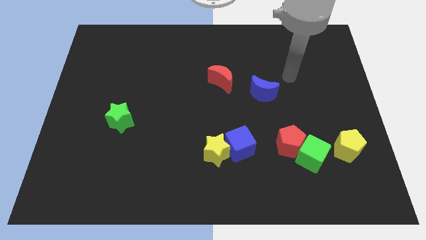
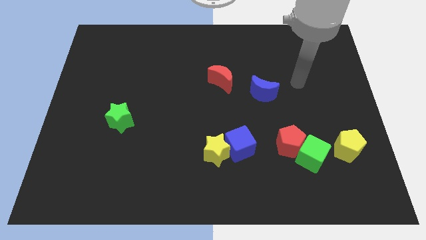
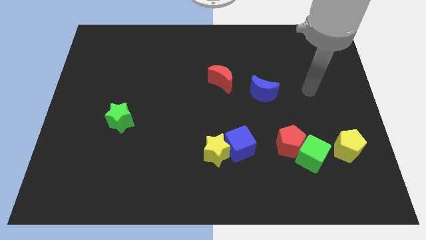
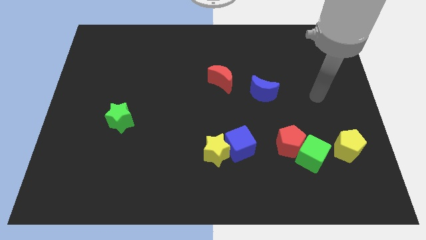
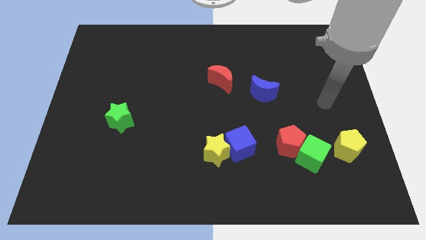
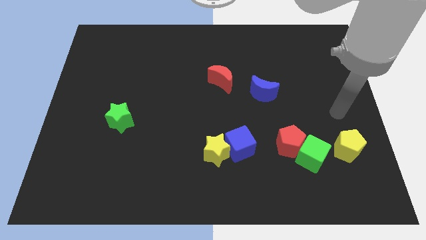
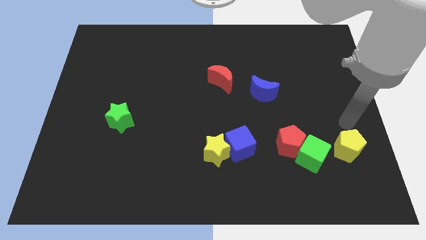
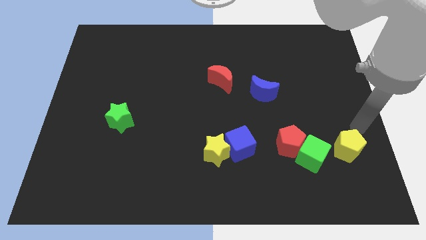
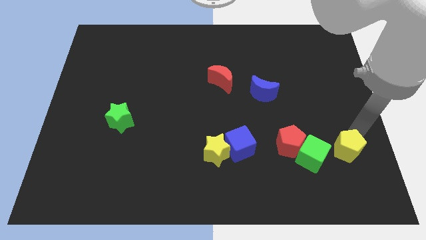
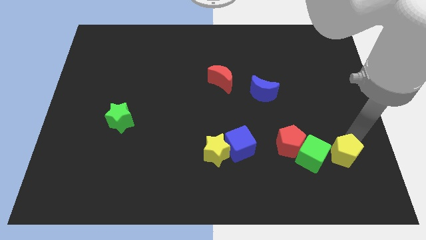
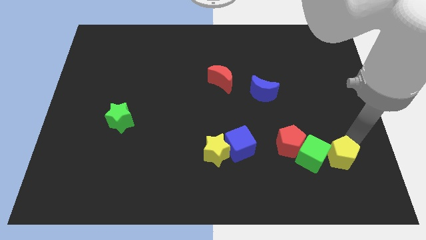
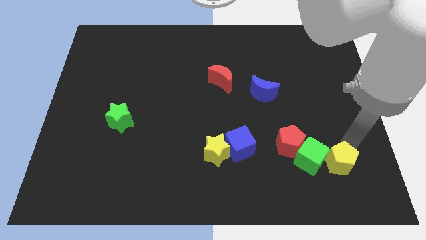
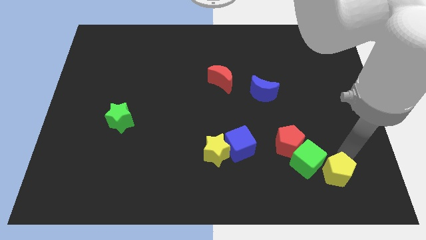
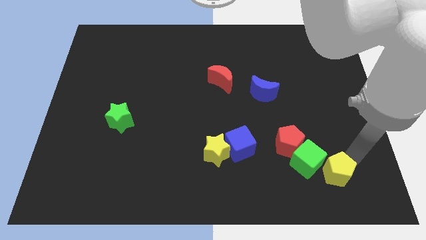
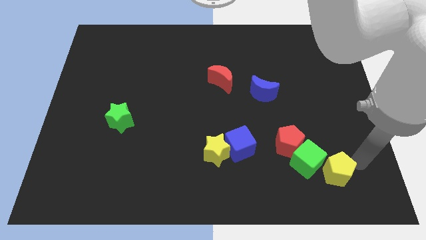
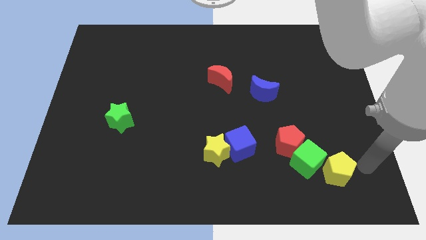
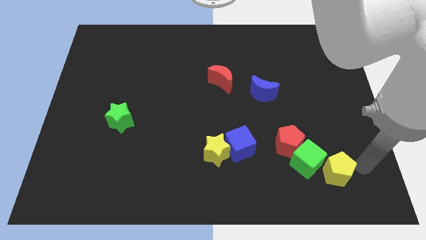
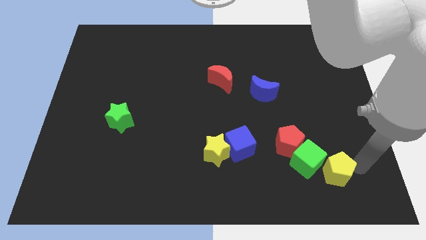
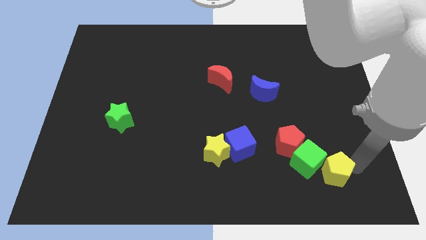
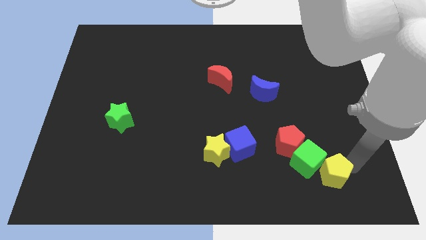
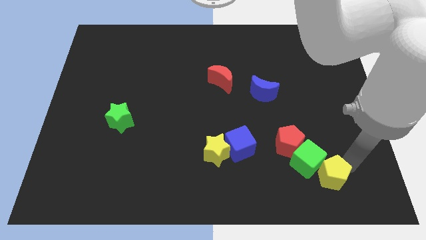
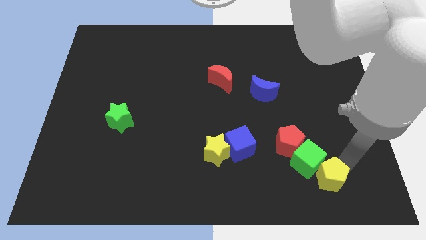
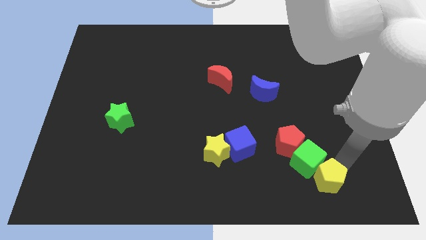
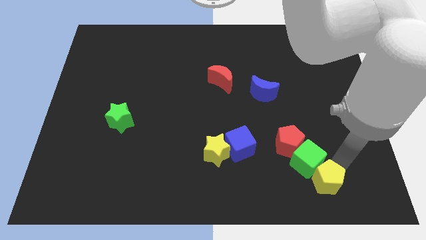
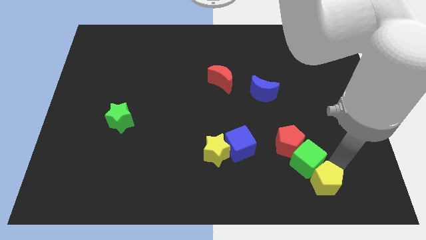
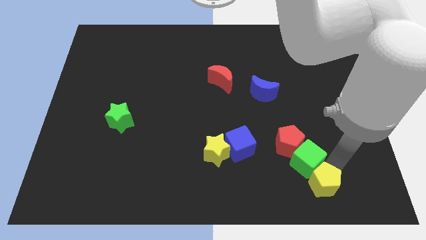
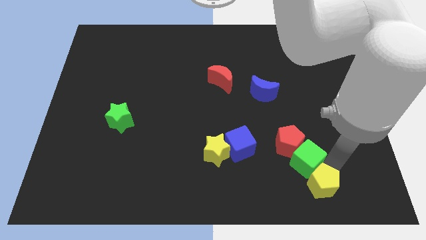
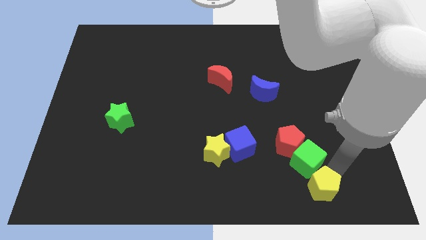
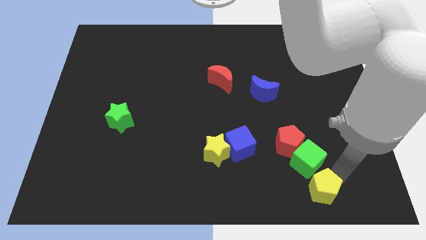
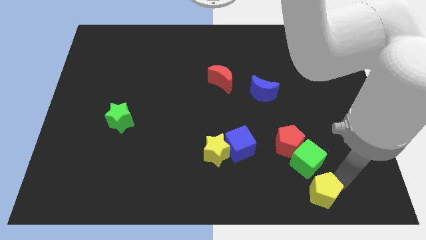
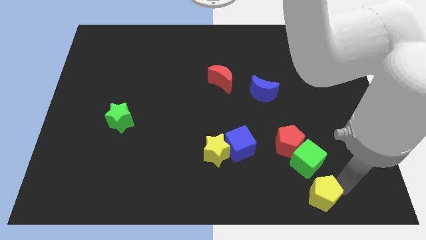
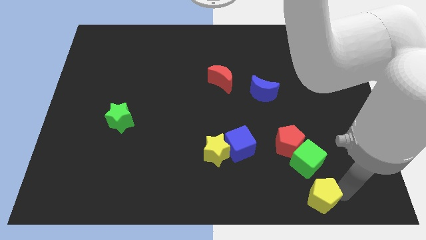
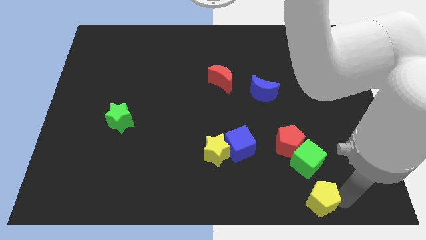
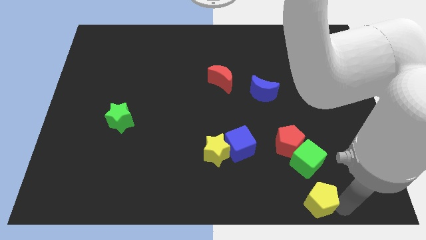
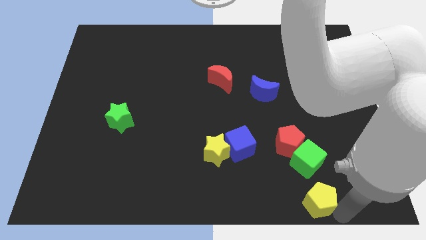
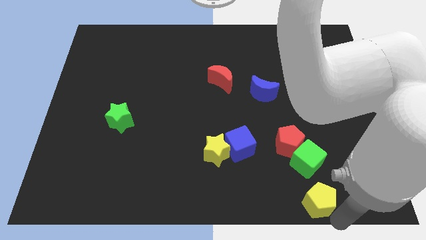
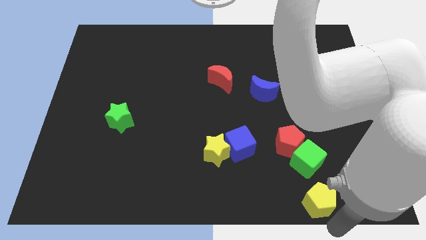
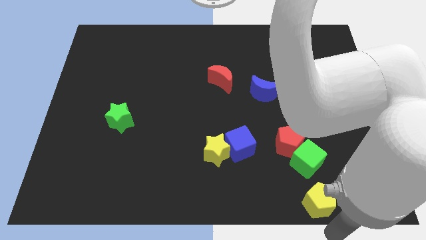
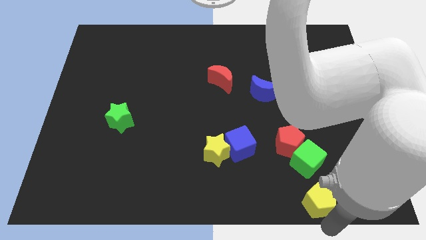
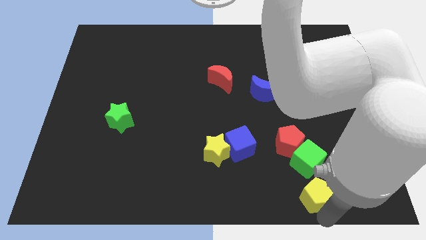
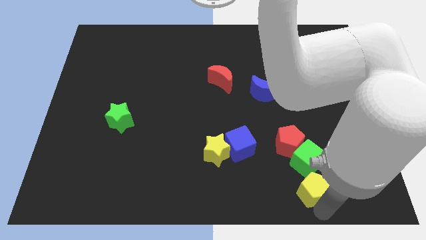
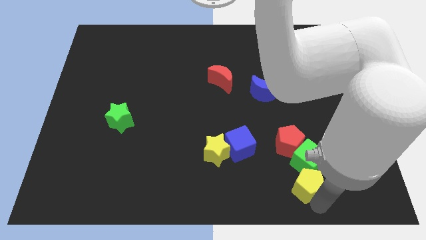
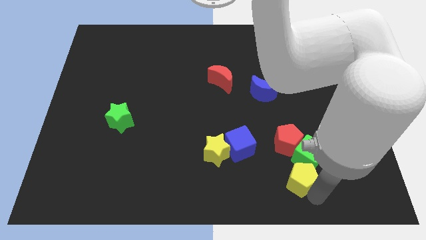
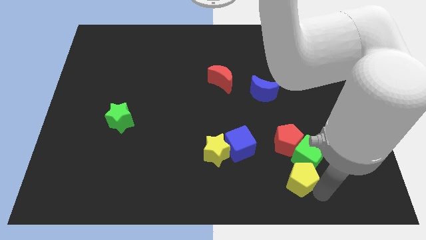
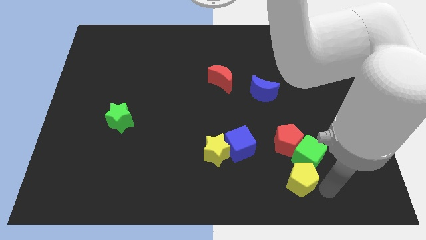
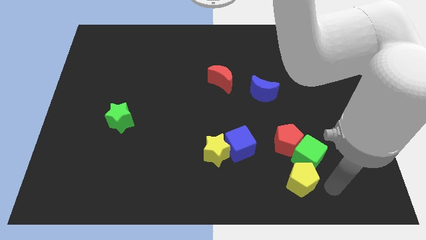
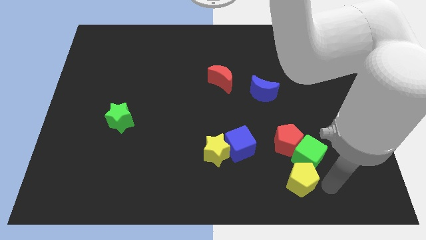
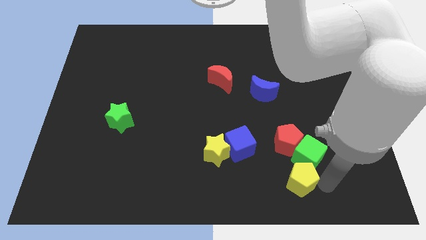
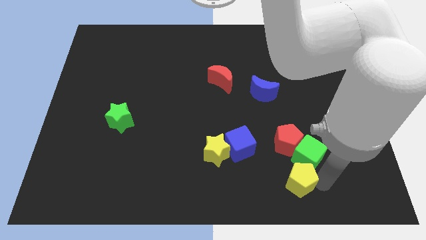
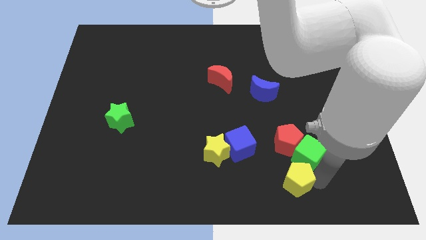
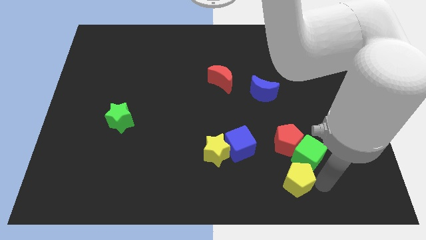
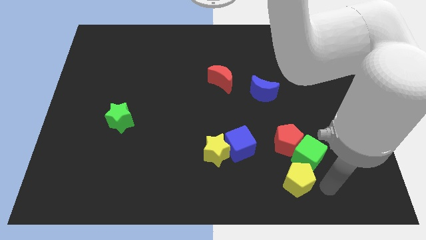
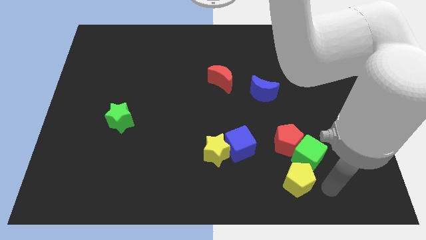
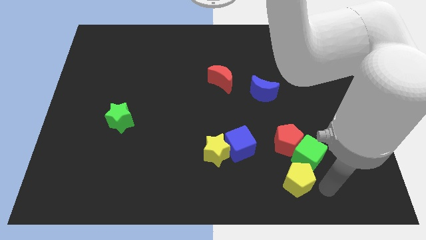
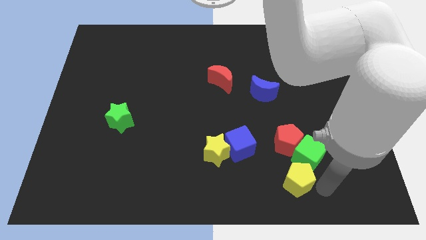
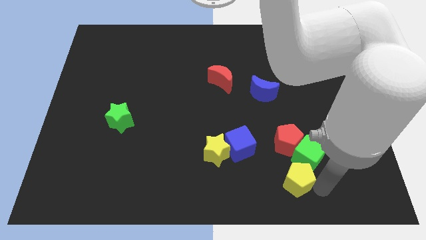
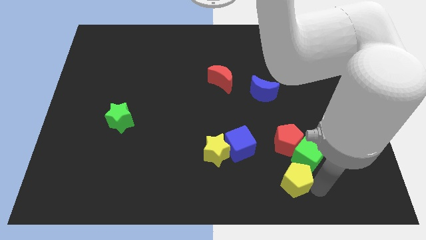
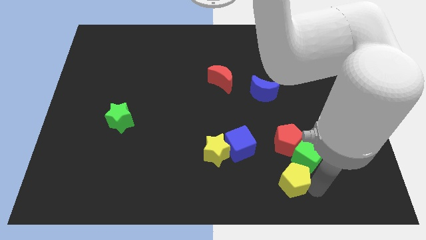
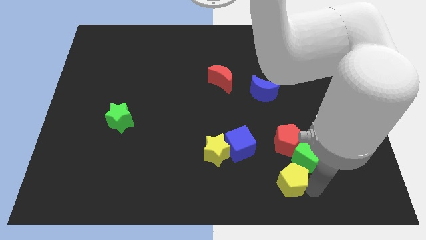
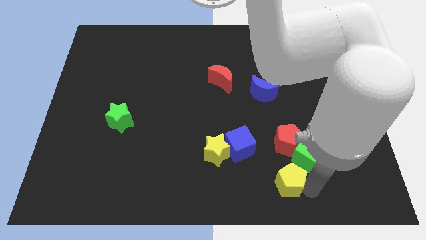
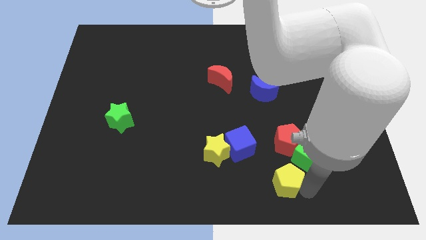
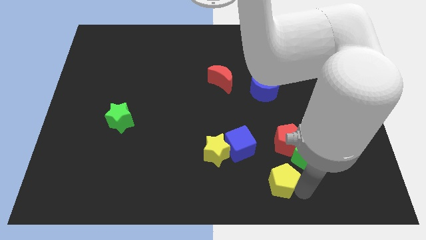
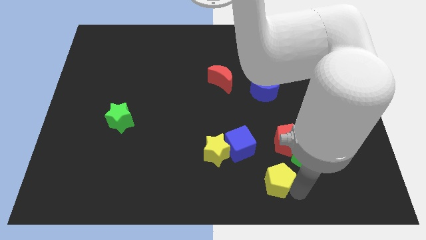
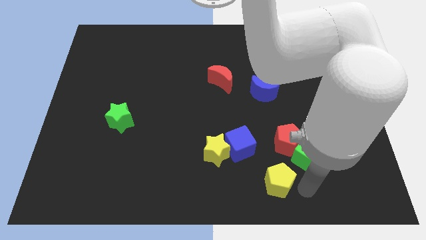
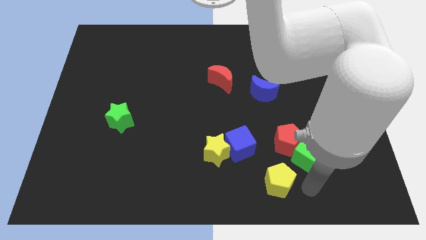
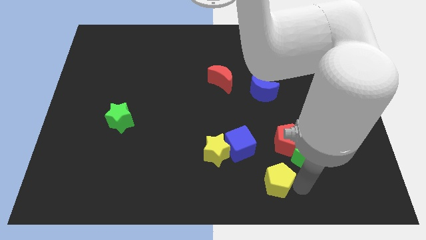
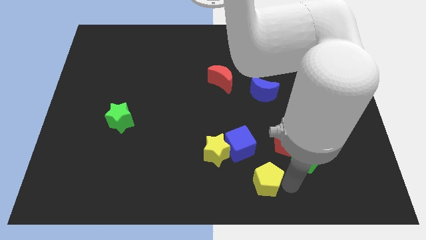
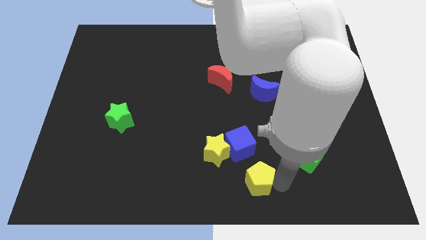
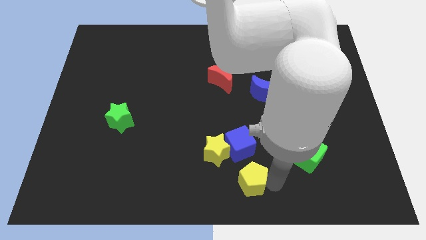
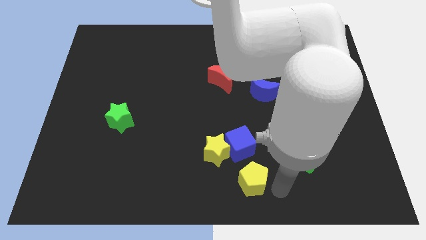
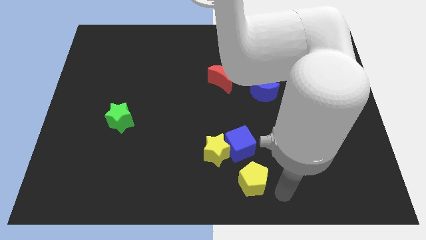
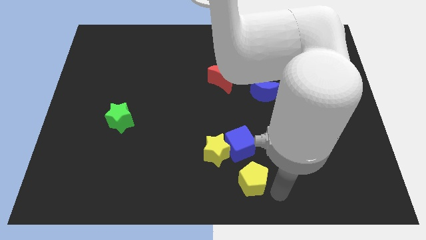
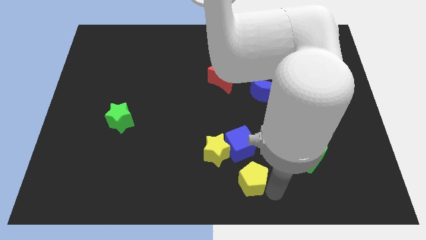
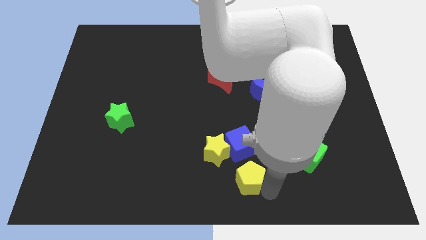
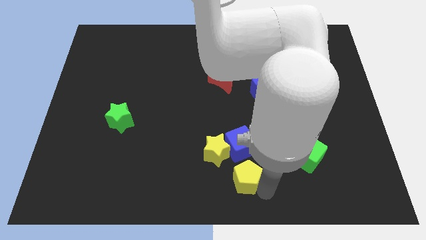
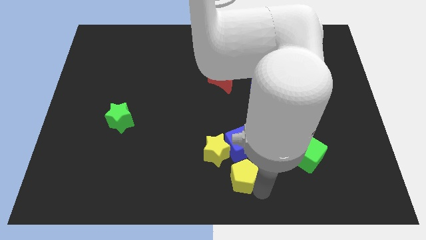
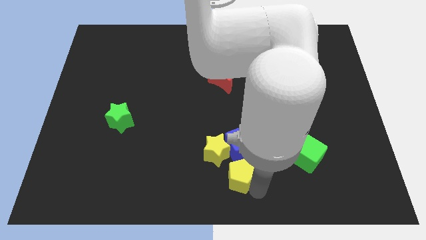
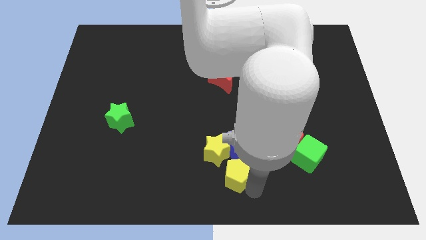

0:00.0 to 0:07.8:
put the yellow pentagon diagonally down and to the left of the blue cube
